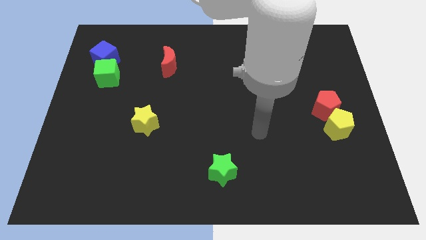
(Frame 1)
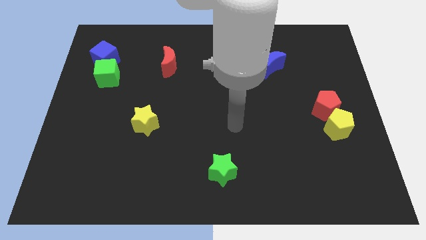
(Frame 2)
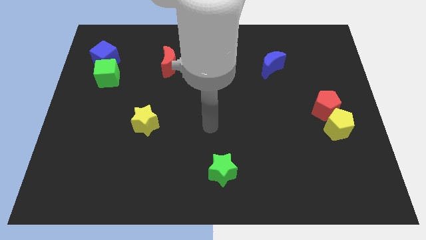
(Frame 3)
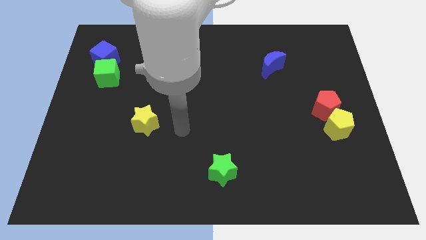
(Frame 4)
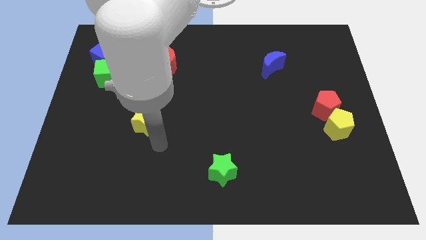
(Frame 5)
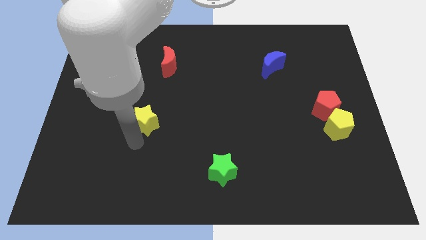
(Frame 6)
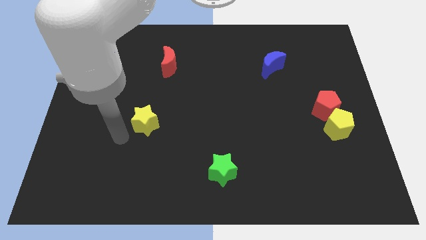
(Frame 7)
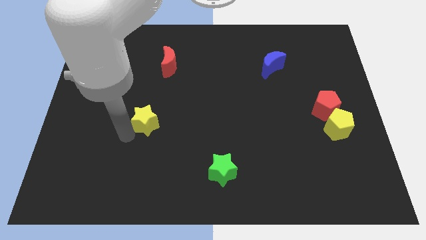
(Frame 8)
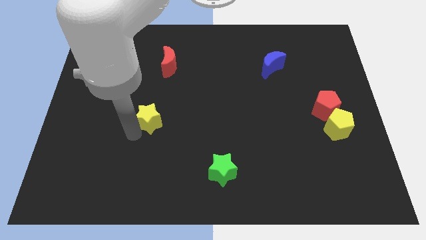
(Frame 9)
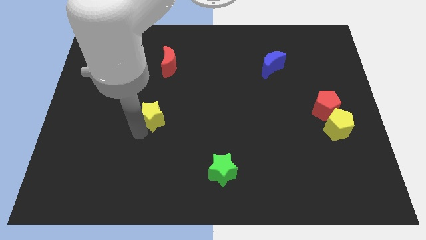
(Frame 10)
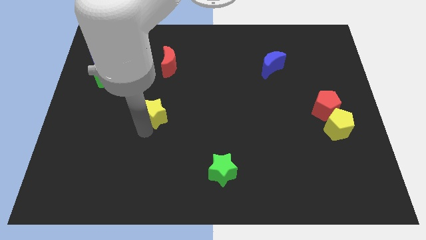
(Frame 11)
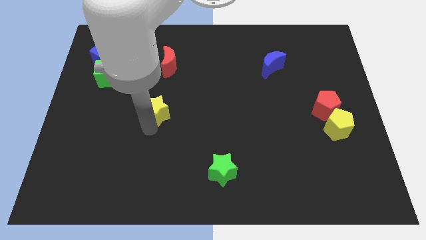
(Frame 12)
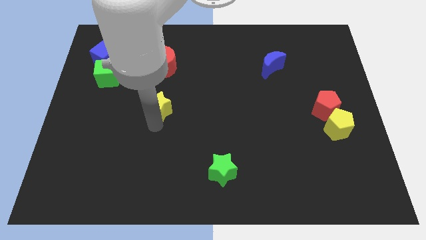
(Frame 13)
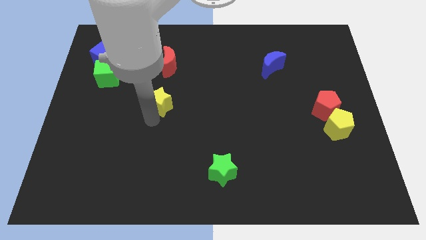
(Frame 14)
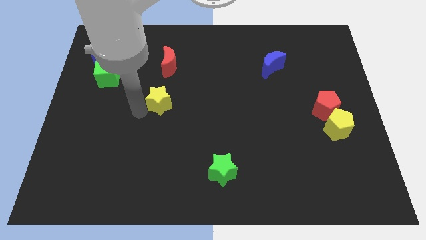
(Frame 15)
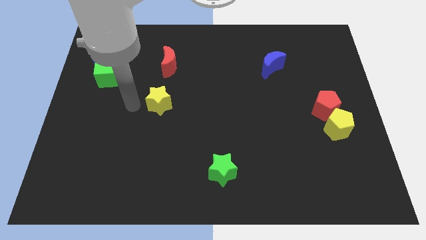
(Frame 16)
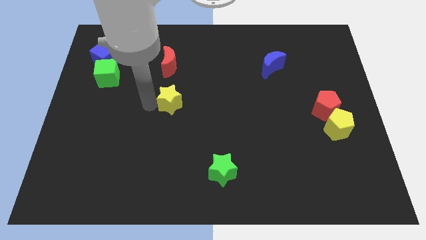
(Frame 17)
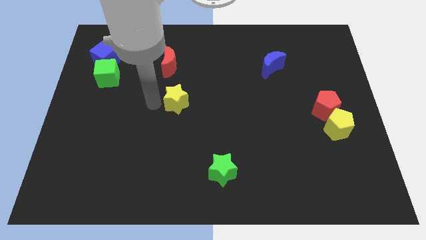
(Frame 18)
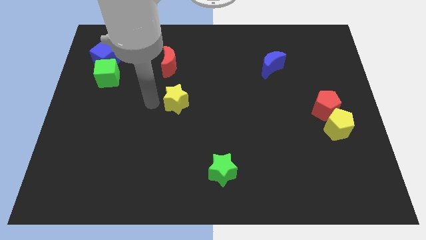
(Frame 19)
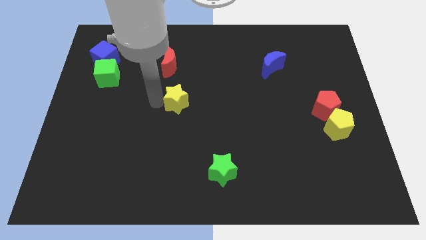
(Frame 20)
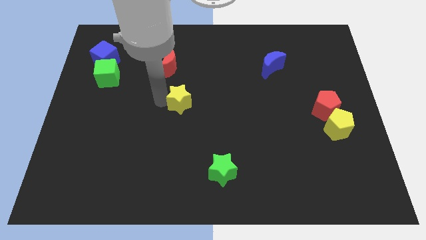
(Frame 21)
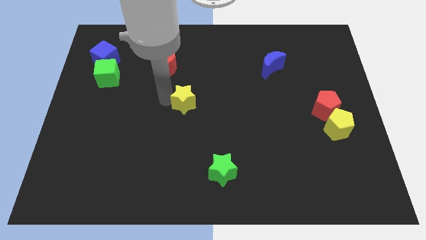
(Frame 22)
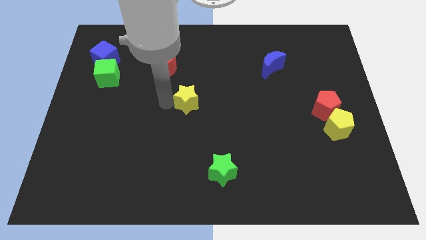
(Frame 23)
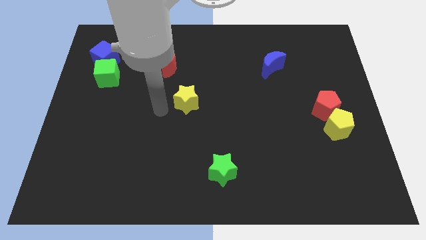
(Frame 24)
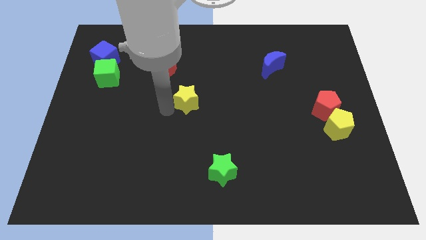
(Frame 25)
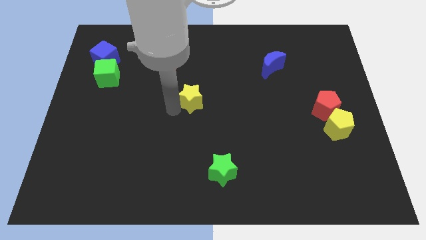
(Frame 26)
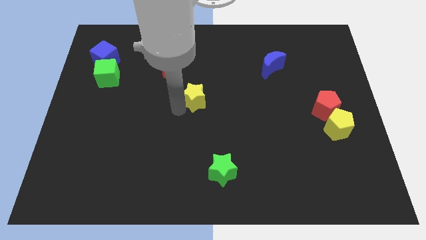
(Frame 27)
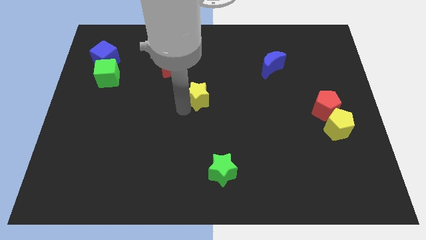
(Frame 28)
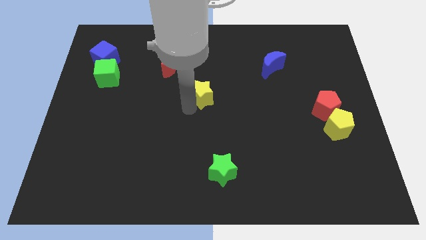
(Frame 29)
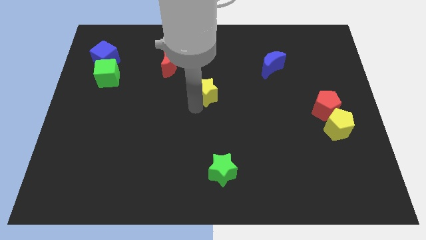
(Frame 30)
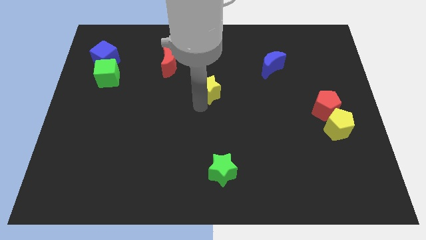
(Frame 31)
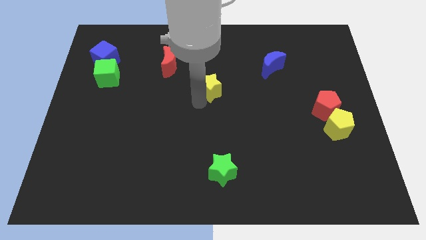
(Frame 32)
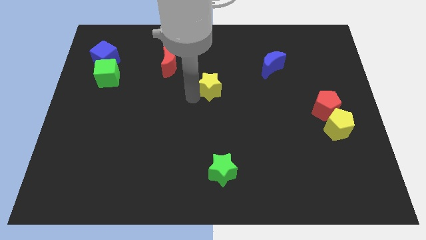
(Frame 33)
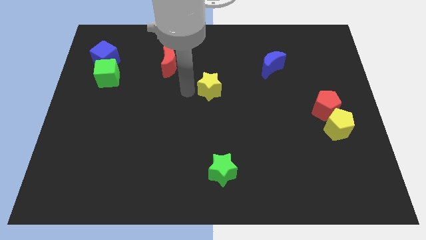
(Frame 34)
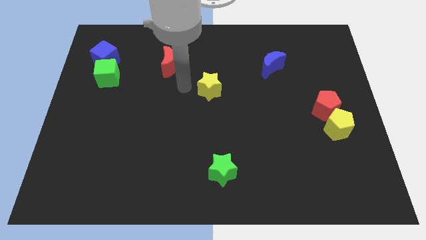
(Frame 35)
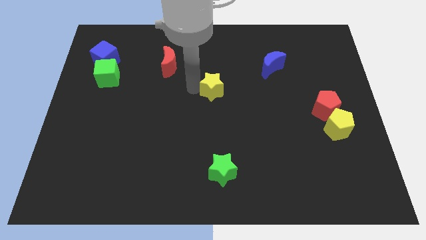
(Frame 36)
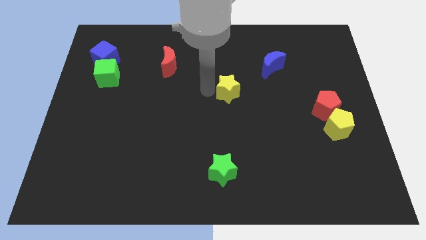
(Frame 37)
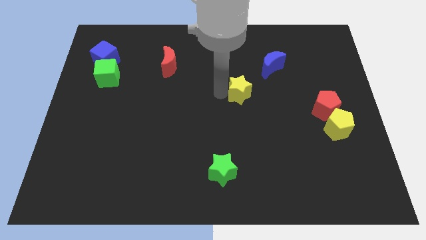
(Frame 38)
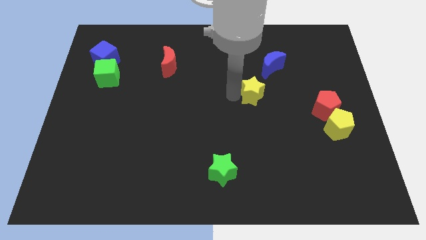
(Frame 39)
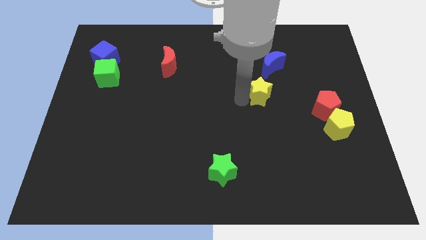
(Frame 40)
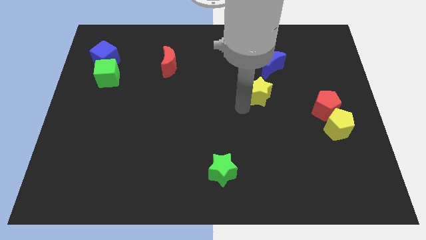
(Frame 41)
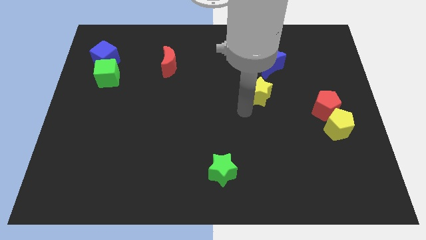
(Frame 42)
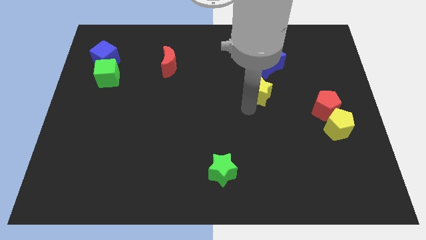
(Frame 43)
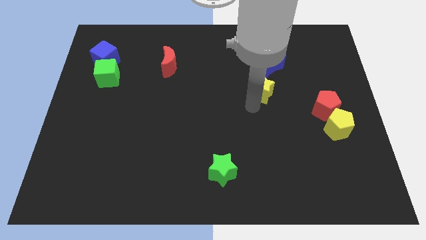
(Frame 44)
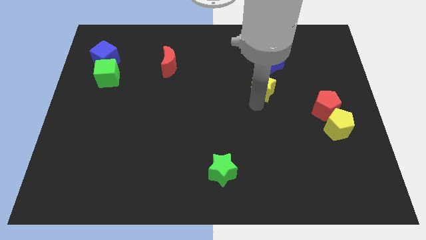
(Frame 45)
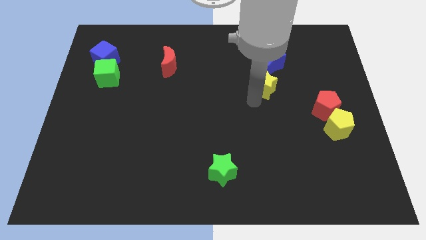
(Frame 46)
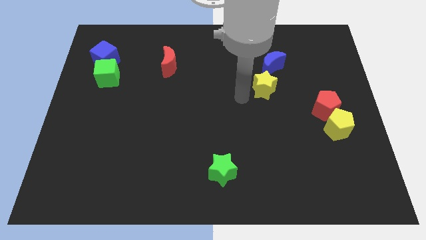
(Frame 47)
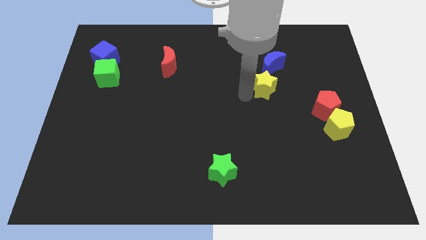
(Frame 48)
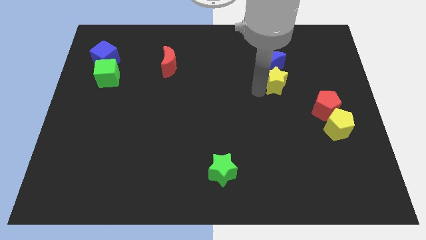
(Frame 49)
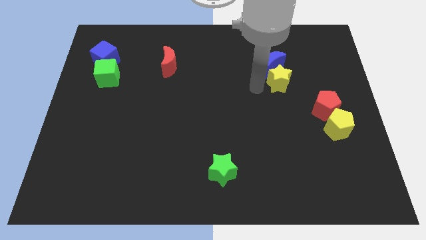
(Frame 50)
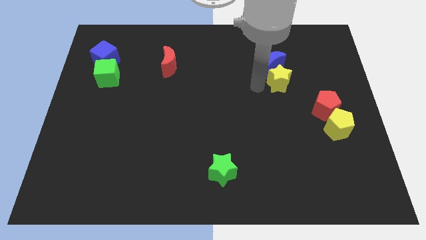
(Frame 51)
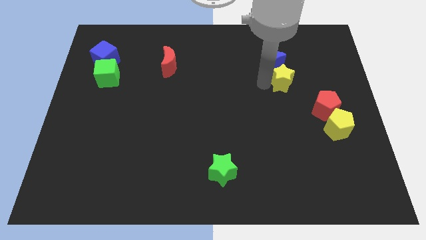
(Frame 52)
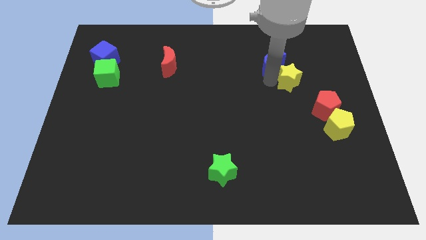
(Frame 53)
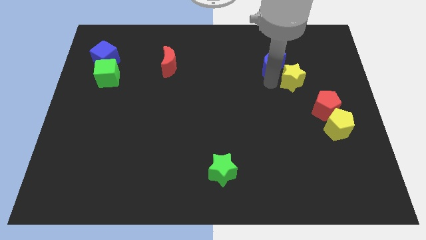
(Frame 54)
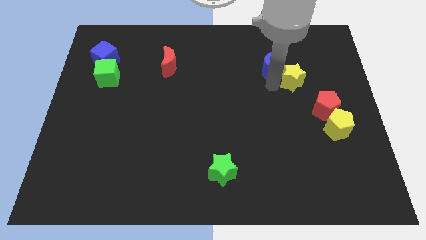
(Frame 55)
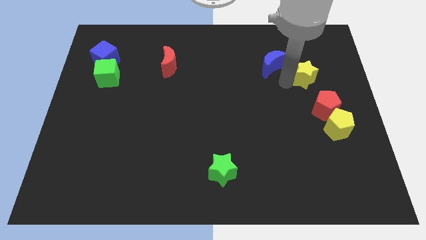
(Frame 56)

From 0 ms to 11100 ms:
slide the yellow star to the top of the red pentagon

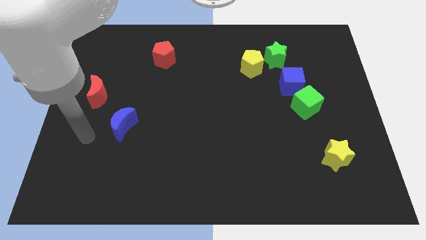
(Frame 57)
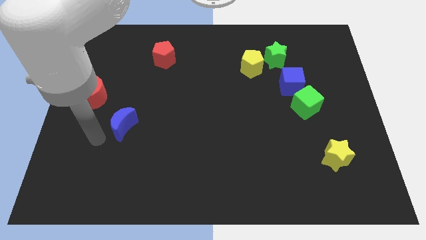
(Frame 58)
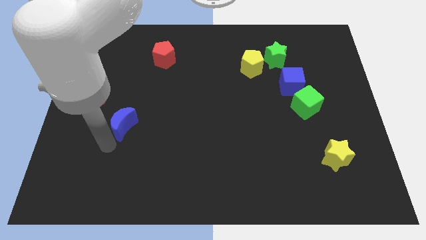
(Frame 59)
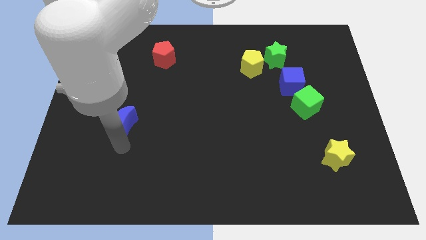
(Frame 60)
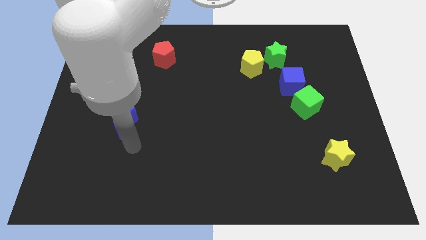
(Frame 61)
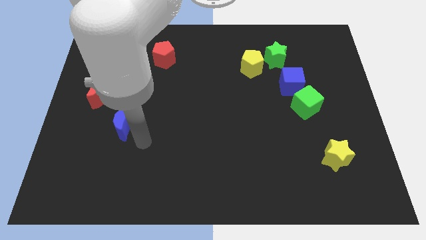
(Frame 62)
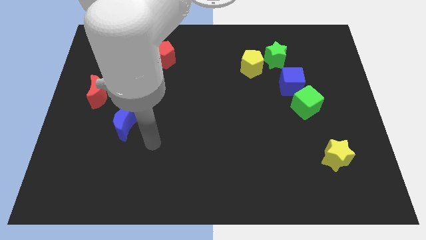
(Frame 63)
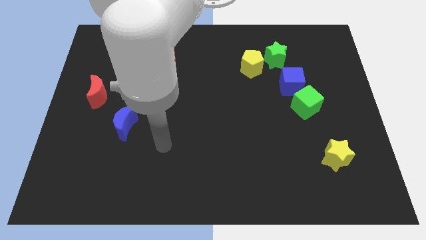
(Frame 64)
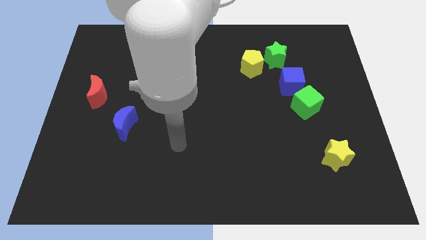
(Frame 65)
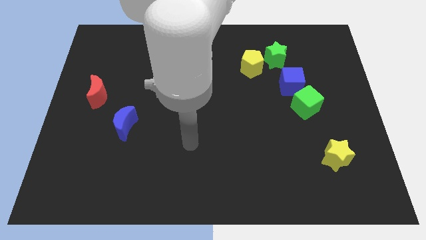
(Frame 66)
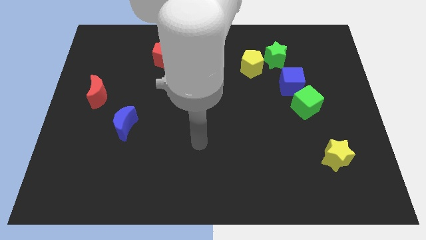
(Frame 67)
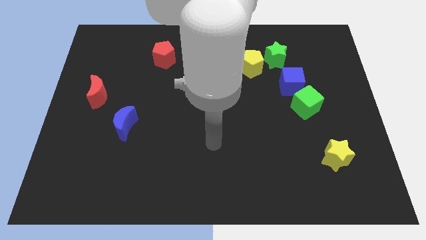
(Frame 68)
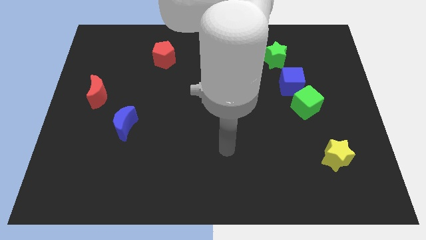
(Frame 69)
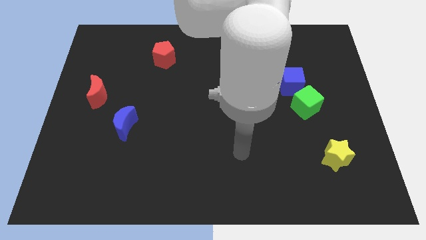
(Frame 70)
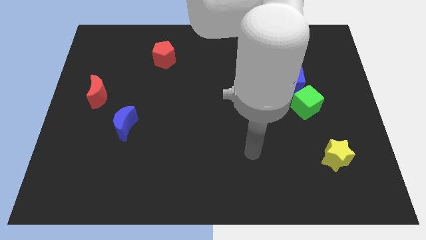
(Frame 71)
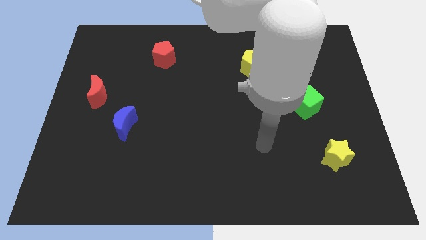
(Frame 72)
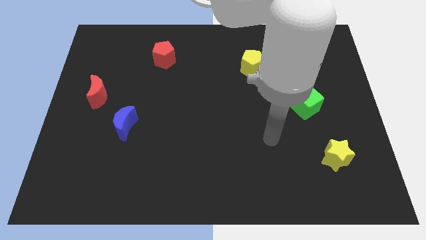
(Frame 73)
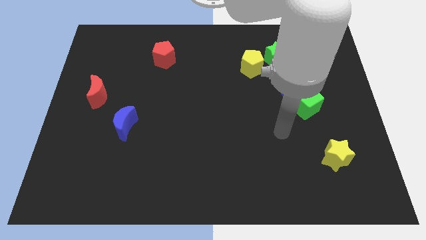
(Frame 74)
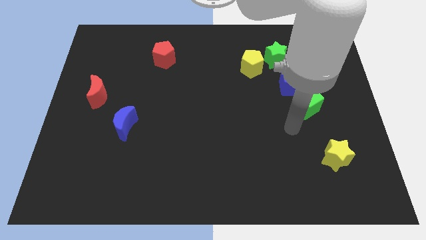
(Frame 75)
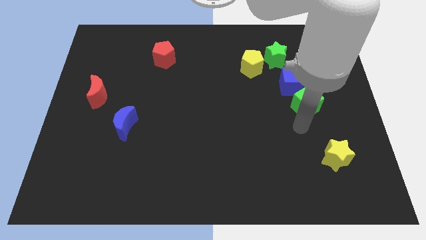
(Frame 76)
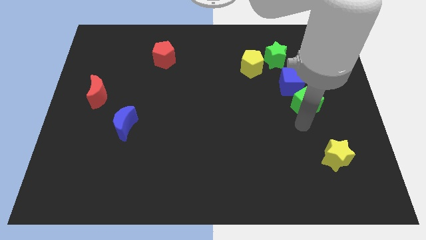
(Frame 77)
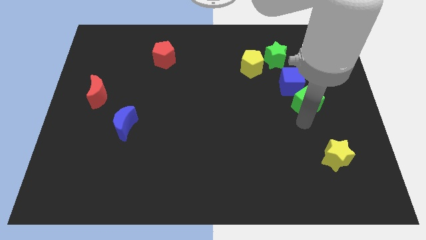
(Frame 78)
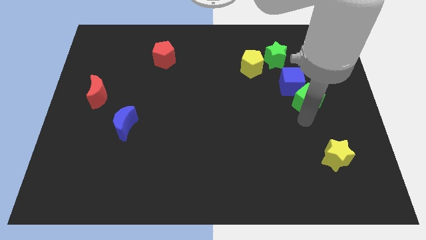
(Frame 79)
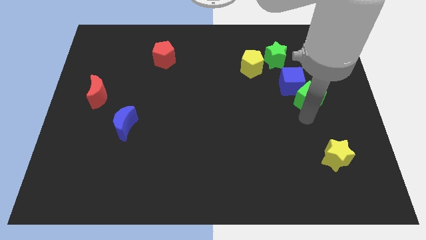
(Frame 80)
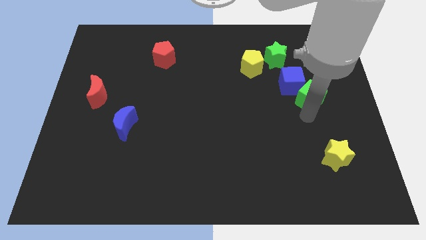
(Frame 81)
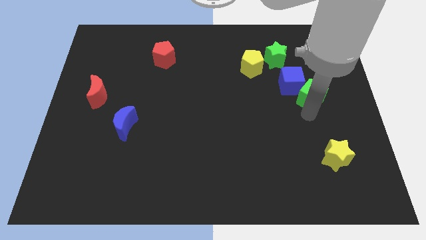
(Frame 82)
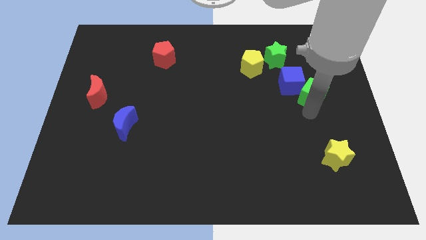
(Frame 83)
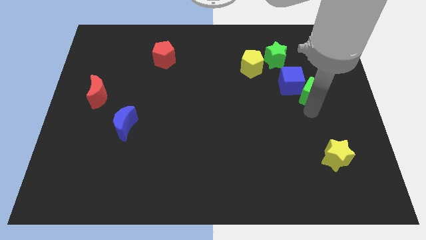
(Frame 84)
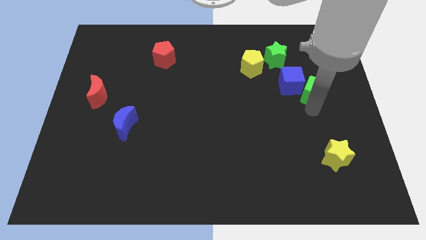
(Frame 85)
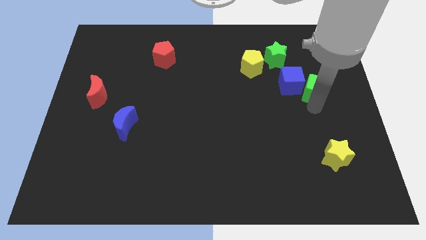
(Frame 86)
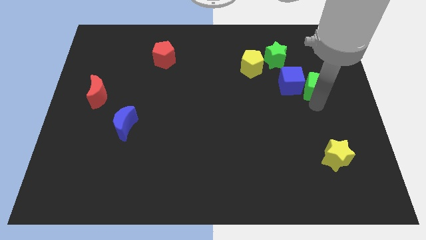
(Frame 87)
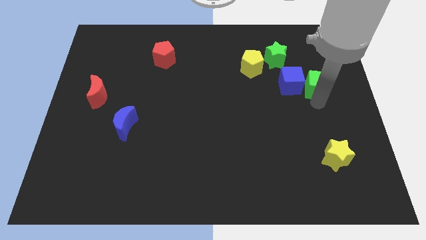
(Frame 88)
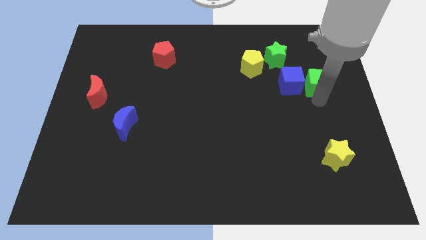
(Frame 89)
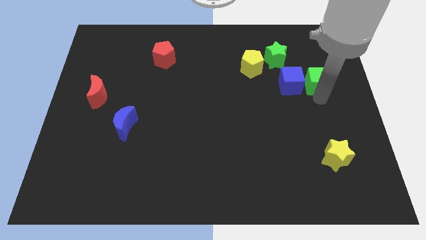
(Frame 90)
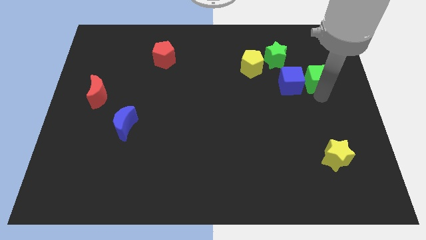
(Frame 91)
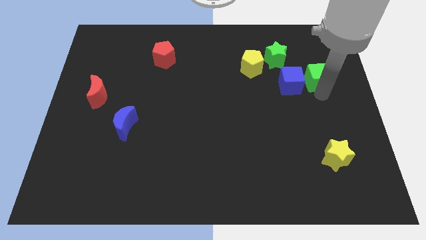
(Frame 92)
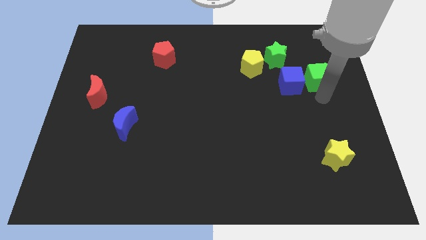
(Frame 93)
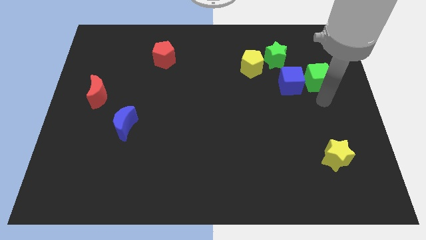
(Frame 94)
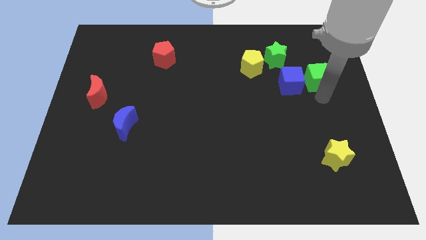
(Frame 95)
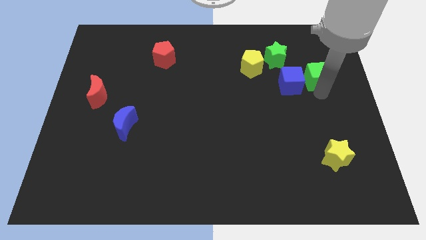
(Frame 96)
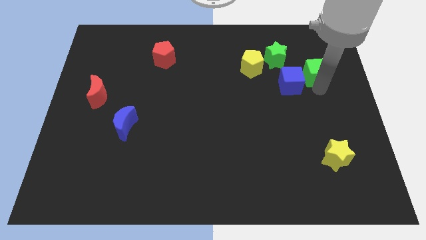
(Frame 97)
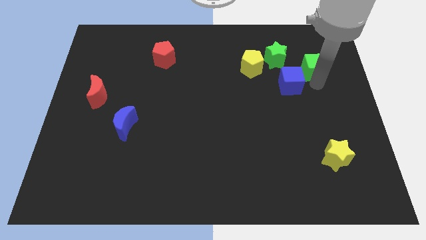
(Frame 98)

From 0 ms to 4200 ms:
push the green cube just right of the green star
